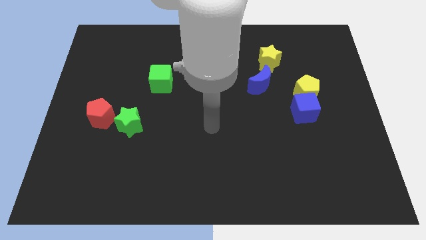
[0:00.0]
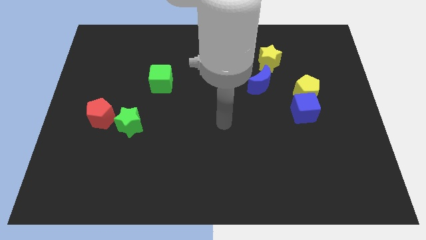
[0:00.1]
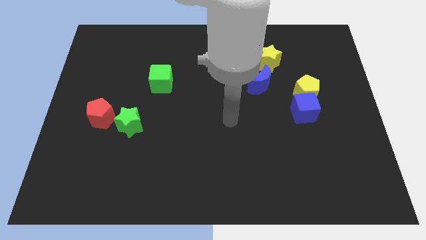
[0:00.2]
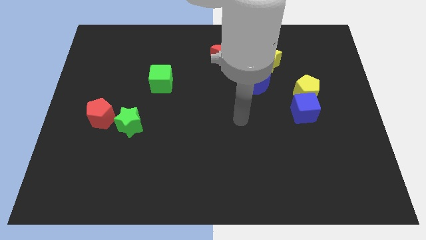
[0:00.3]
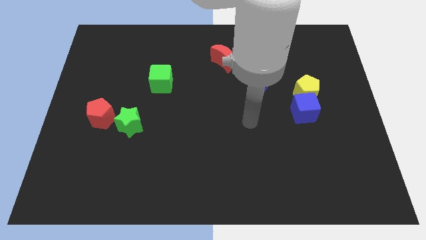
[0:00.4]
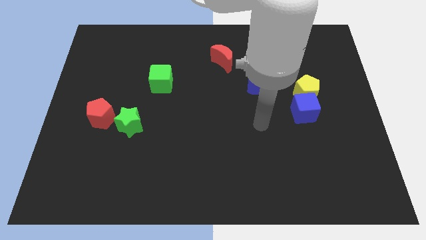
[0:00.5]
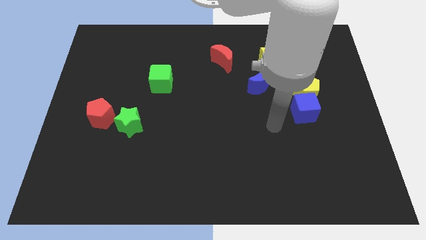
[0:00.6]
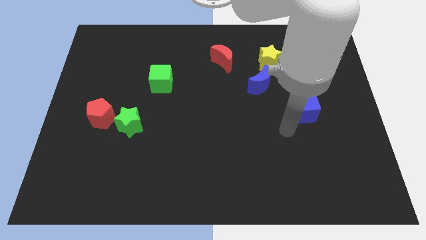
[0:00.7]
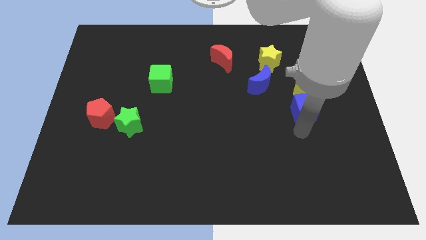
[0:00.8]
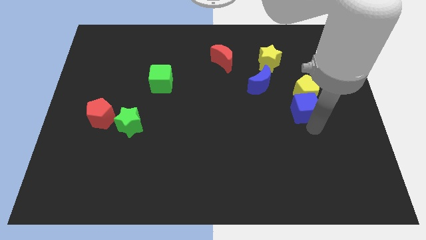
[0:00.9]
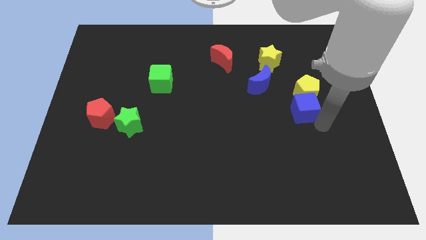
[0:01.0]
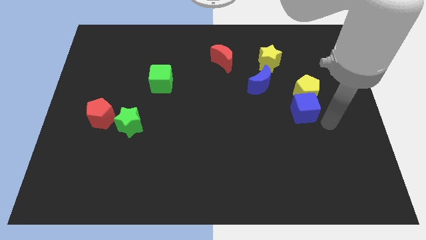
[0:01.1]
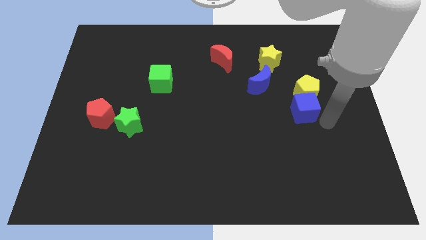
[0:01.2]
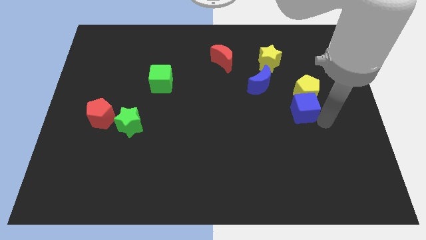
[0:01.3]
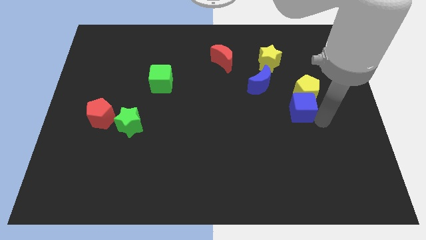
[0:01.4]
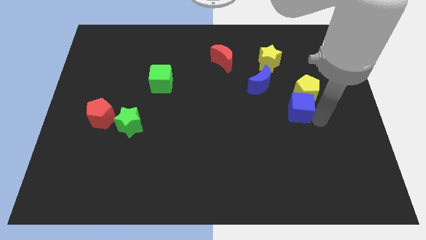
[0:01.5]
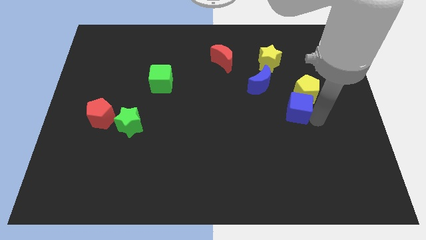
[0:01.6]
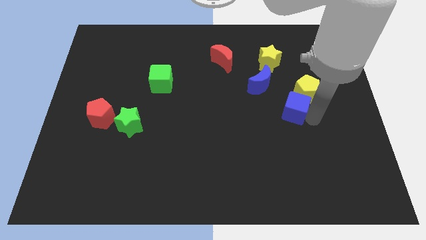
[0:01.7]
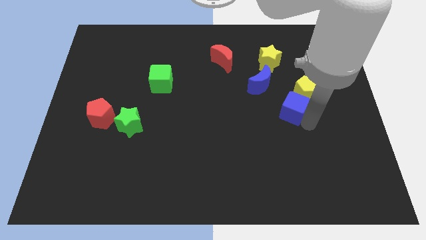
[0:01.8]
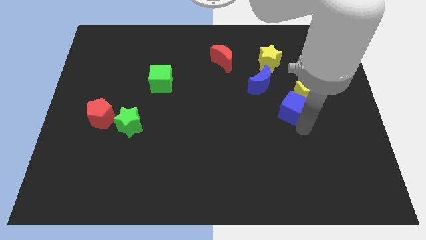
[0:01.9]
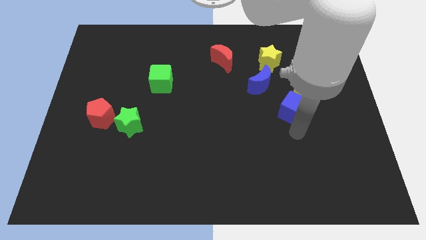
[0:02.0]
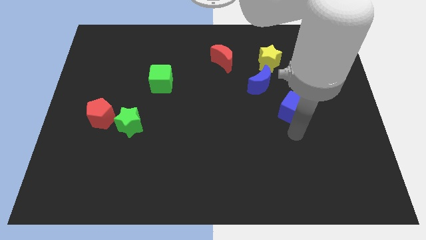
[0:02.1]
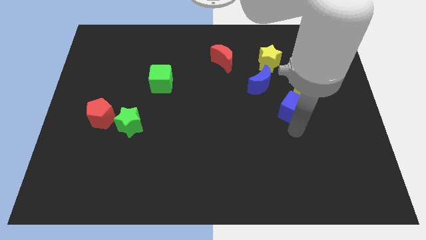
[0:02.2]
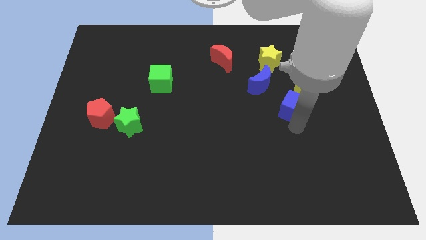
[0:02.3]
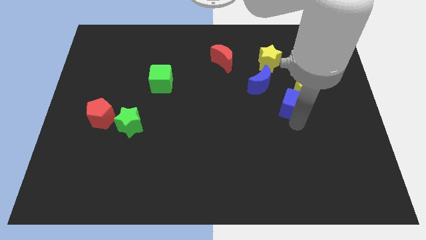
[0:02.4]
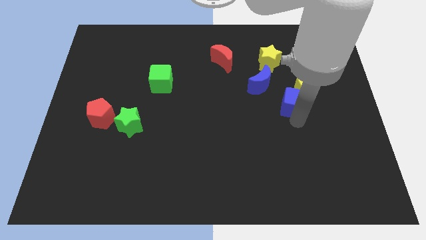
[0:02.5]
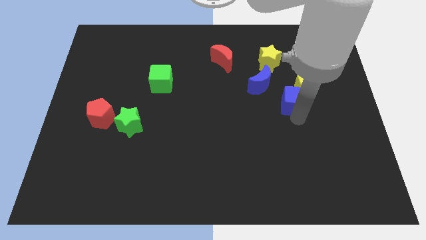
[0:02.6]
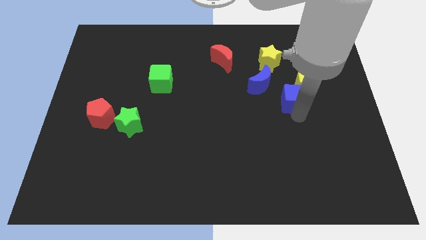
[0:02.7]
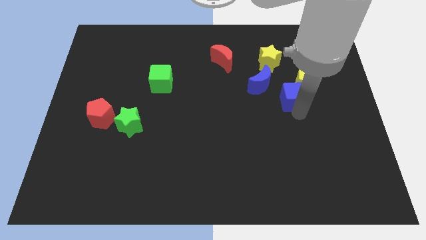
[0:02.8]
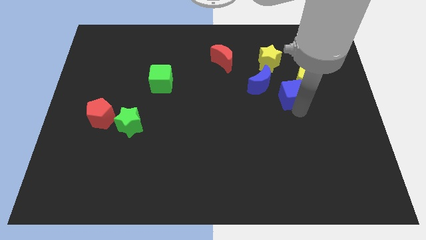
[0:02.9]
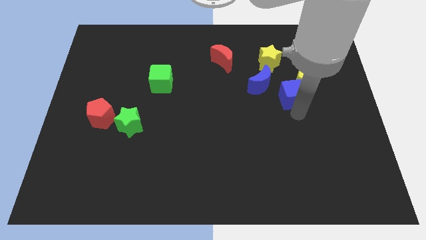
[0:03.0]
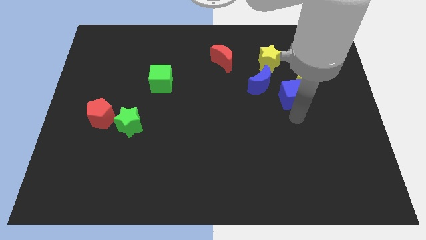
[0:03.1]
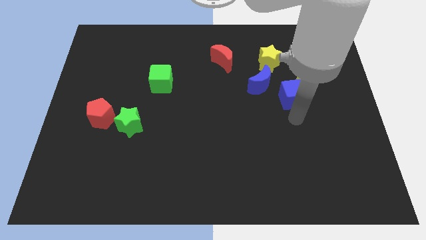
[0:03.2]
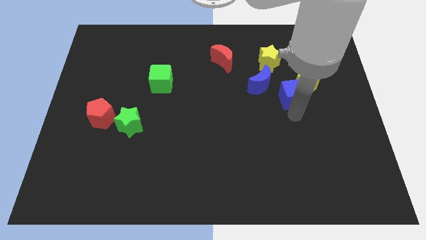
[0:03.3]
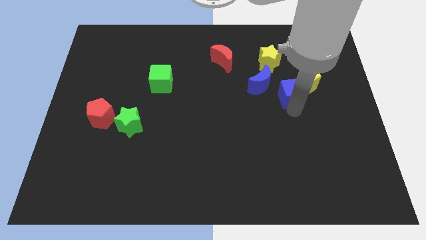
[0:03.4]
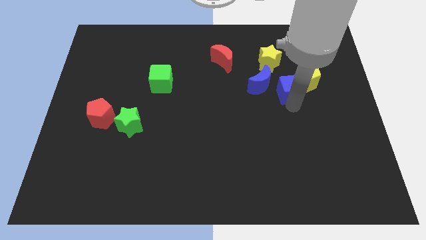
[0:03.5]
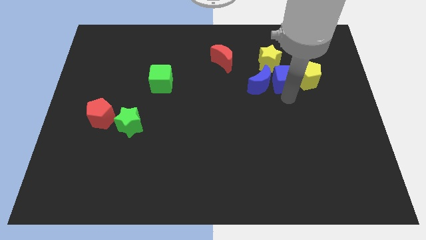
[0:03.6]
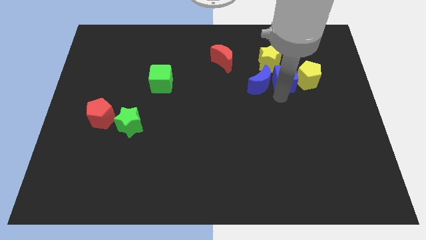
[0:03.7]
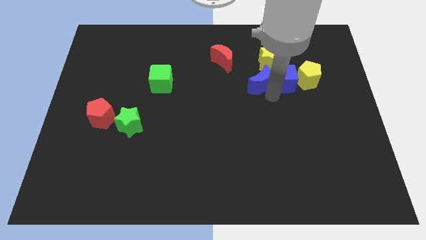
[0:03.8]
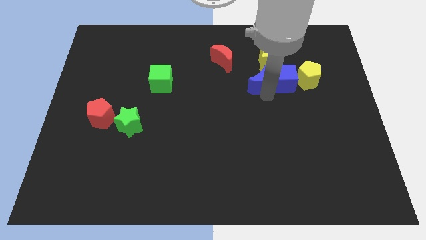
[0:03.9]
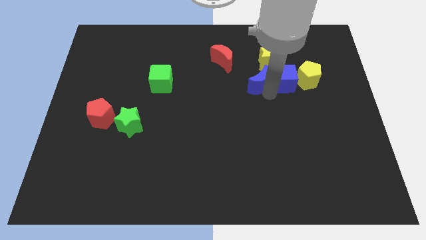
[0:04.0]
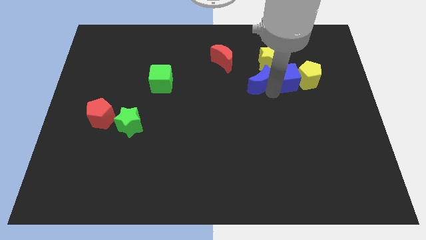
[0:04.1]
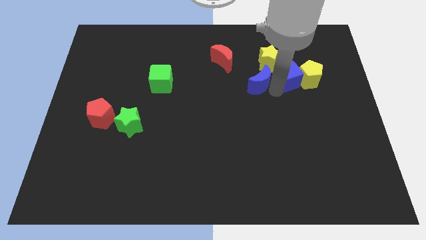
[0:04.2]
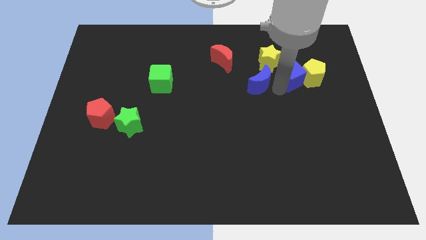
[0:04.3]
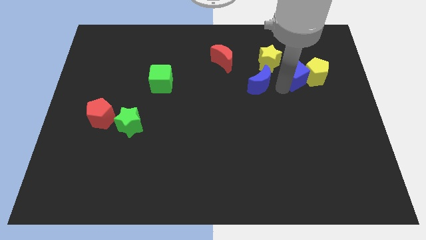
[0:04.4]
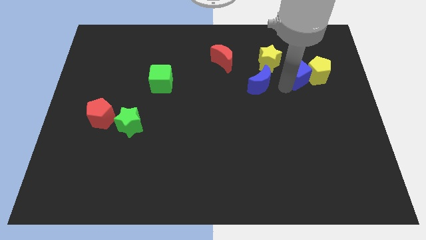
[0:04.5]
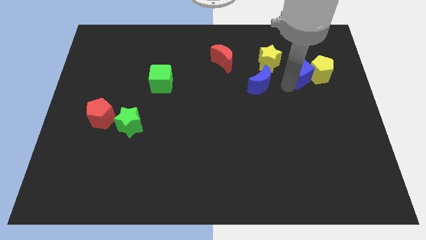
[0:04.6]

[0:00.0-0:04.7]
push the blue cube right of the yellow star

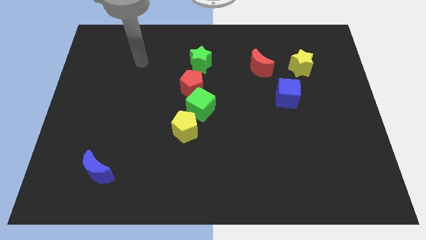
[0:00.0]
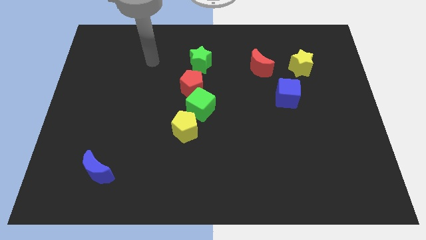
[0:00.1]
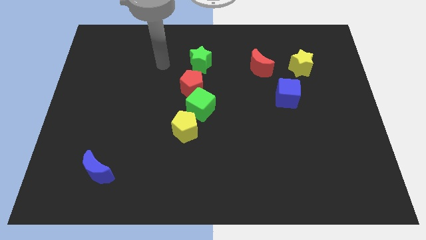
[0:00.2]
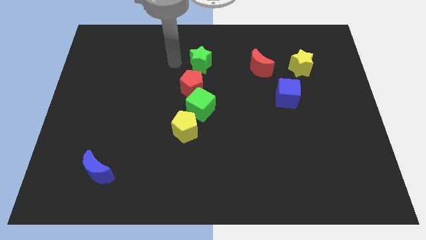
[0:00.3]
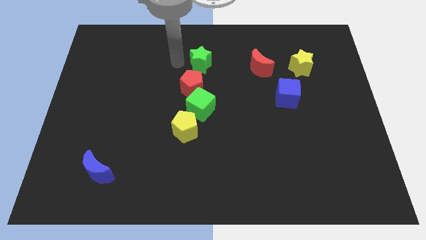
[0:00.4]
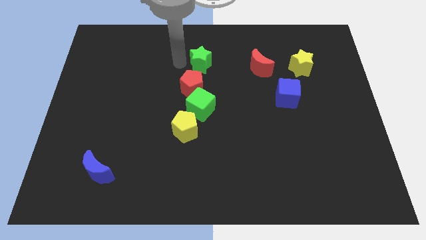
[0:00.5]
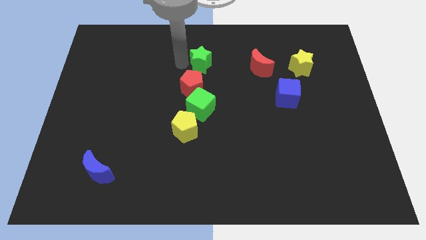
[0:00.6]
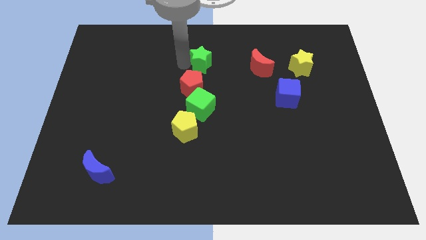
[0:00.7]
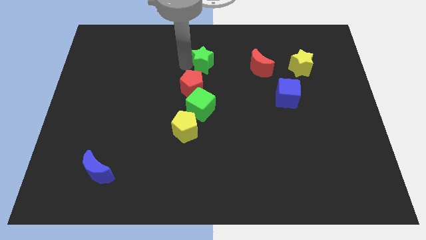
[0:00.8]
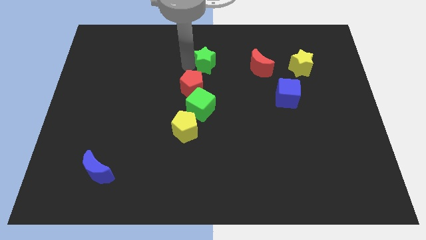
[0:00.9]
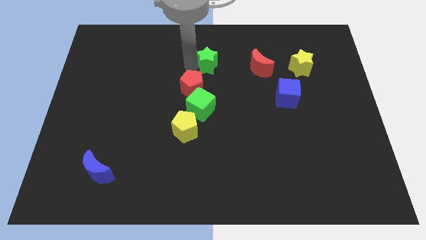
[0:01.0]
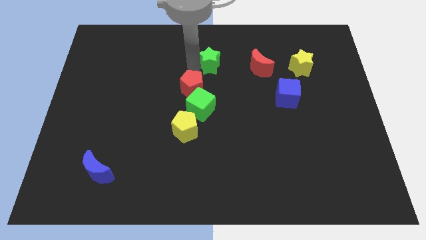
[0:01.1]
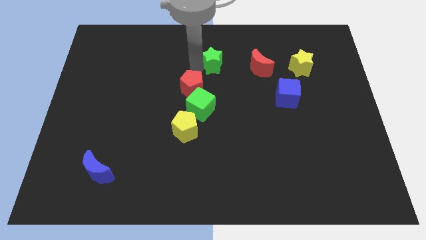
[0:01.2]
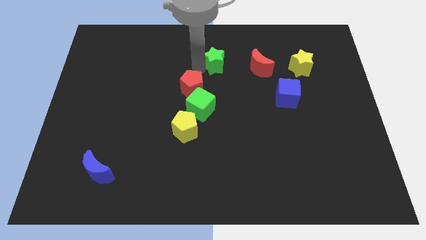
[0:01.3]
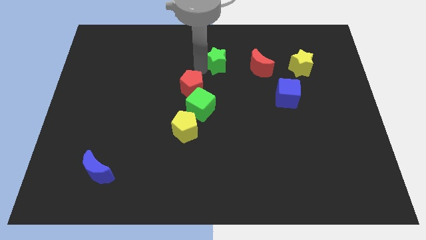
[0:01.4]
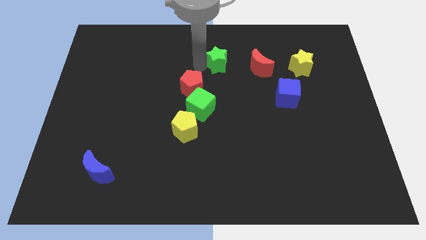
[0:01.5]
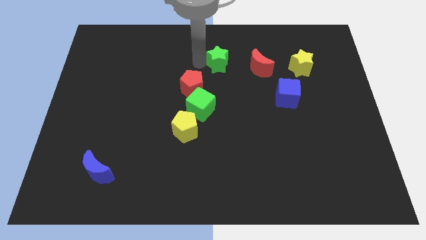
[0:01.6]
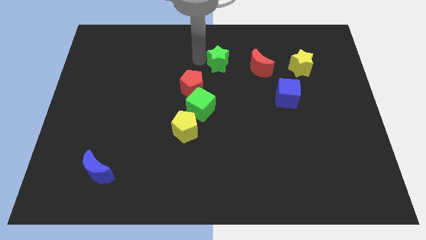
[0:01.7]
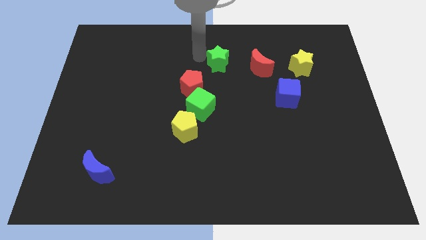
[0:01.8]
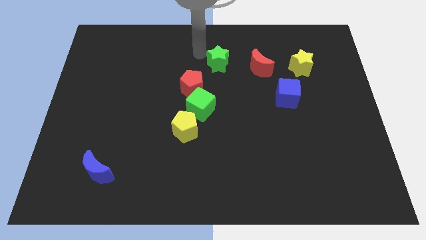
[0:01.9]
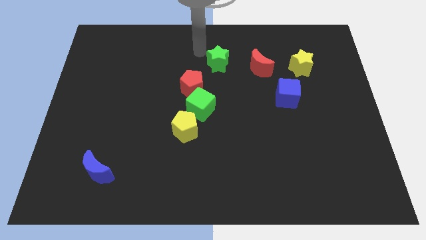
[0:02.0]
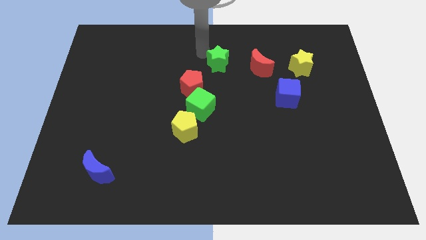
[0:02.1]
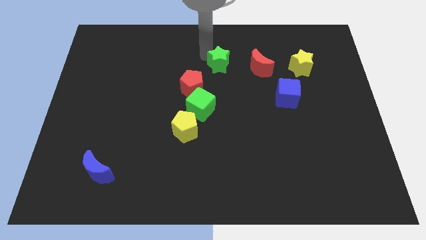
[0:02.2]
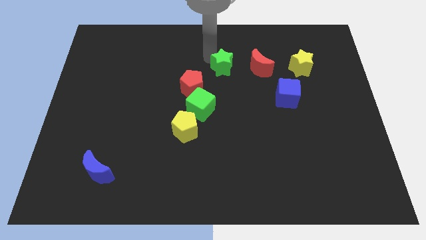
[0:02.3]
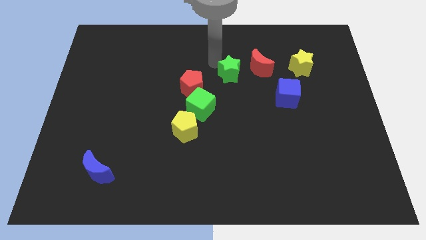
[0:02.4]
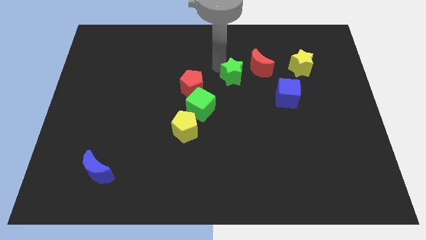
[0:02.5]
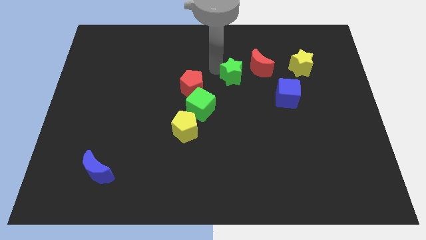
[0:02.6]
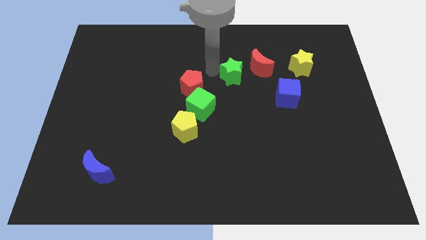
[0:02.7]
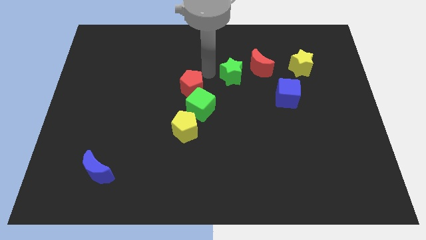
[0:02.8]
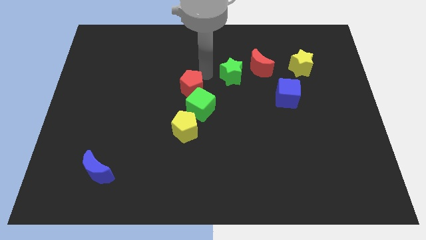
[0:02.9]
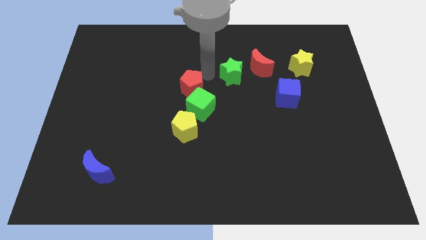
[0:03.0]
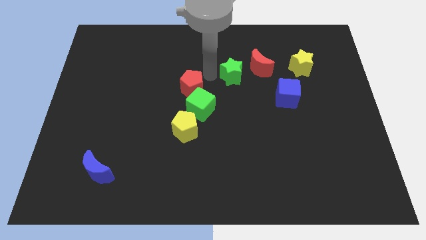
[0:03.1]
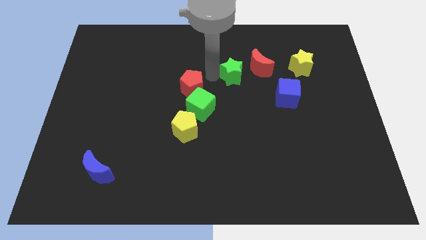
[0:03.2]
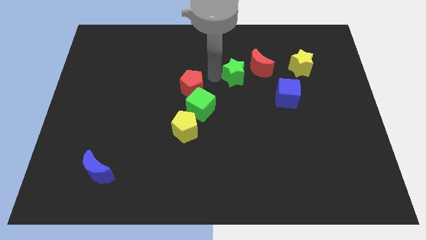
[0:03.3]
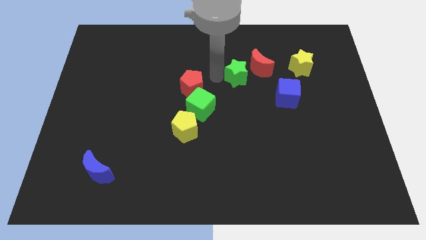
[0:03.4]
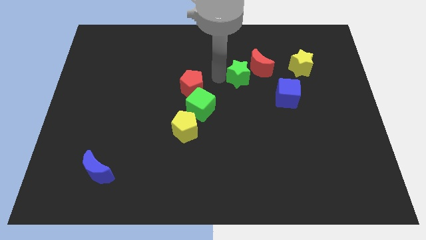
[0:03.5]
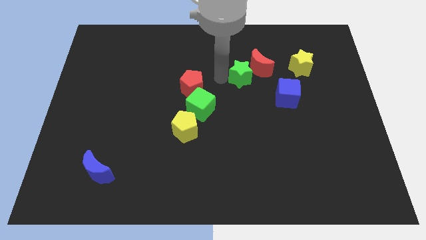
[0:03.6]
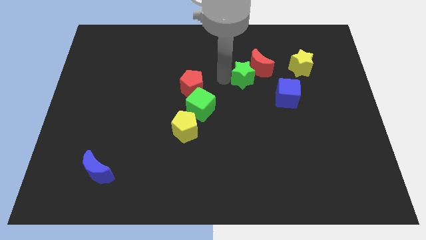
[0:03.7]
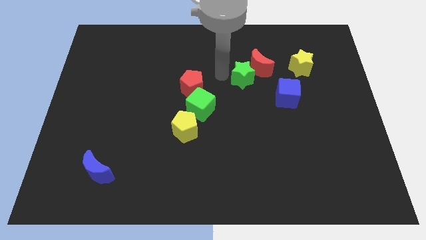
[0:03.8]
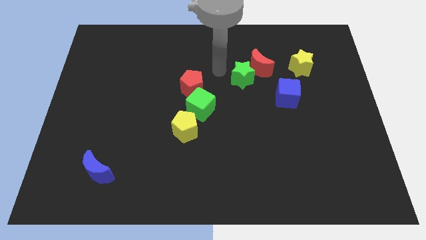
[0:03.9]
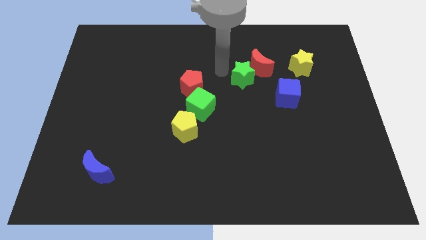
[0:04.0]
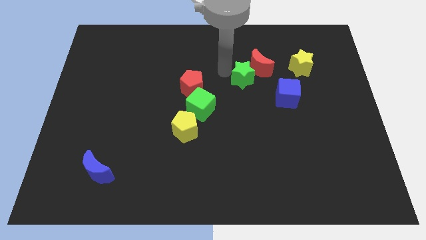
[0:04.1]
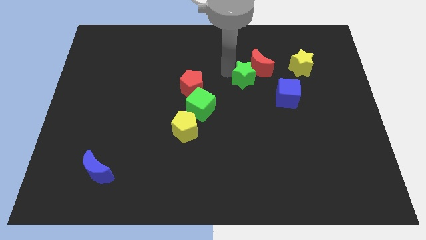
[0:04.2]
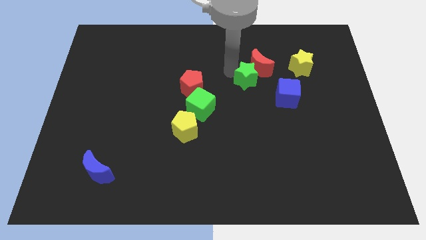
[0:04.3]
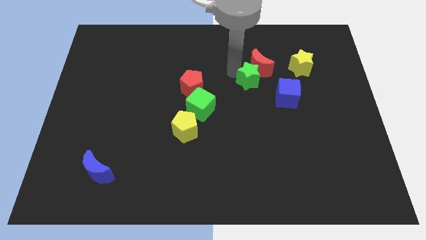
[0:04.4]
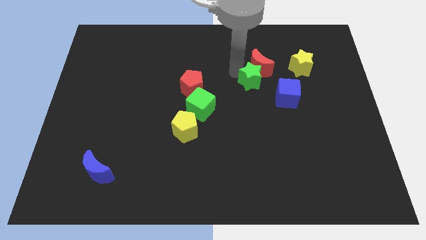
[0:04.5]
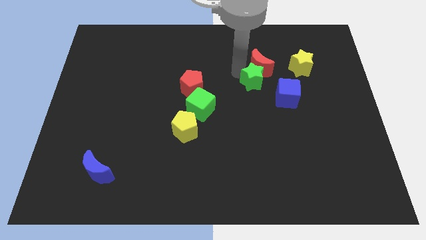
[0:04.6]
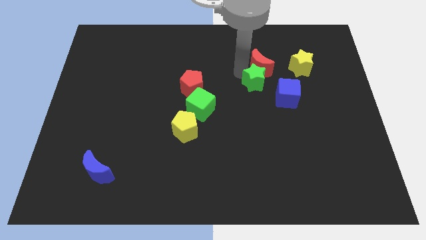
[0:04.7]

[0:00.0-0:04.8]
move the green star to the bottom right of the red moon
